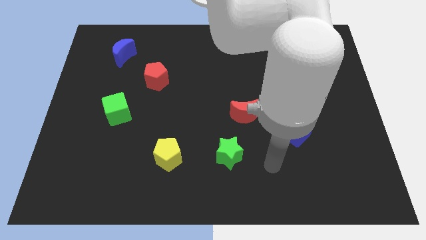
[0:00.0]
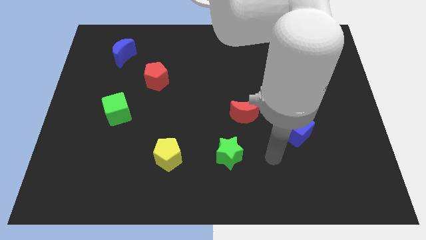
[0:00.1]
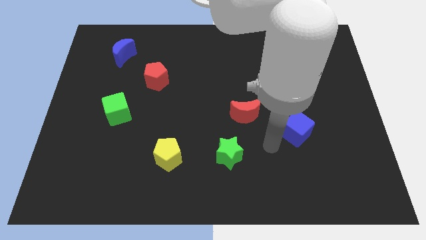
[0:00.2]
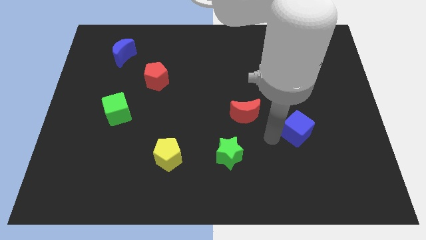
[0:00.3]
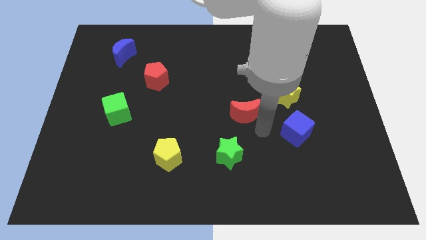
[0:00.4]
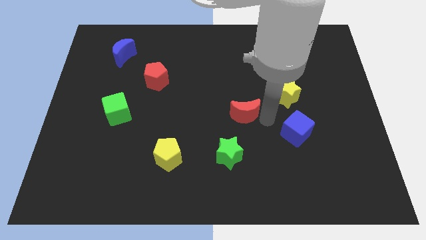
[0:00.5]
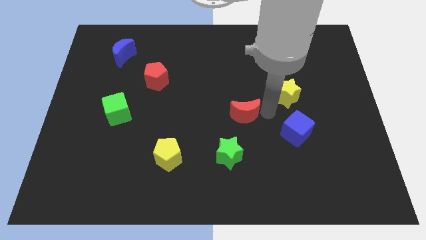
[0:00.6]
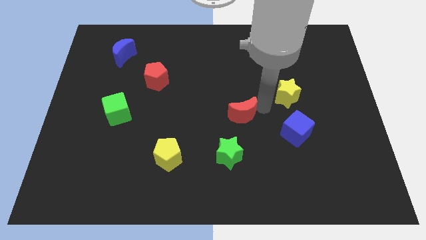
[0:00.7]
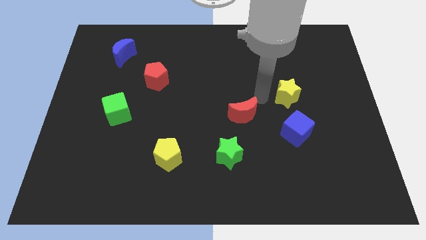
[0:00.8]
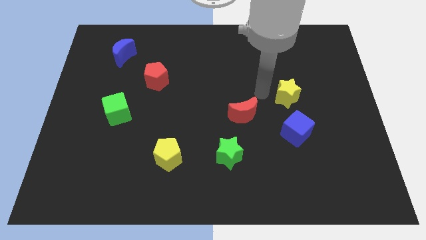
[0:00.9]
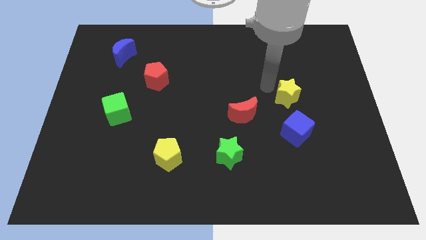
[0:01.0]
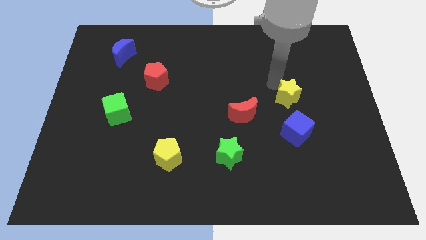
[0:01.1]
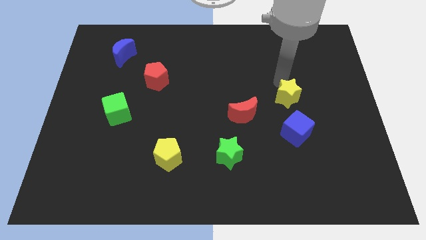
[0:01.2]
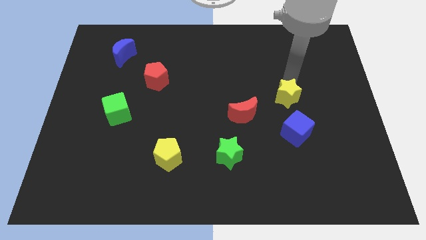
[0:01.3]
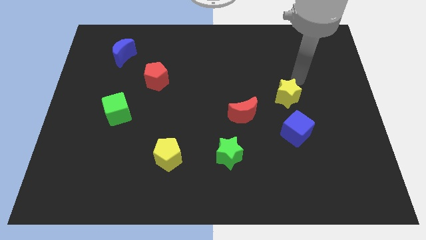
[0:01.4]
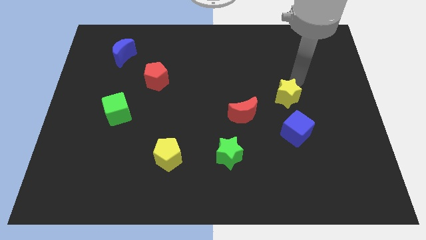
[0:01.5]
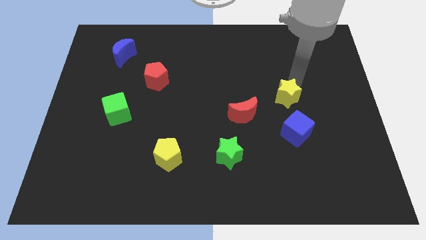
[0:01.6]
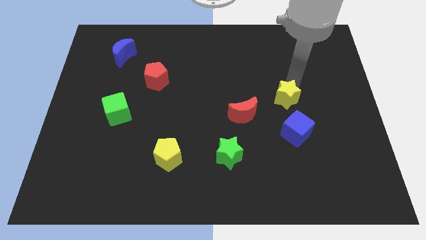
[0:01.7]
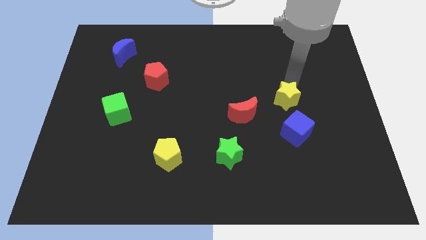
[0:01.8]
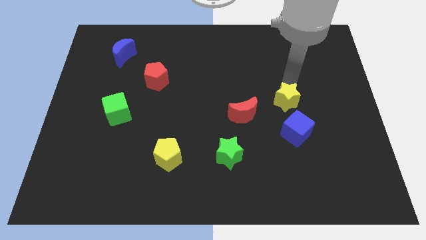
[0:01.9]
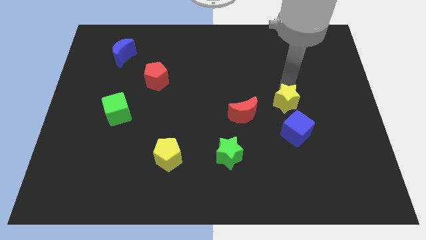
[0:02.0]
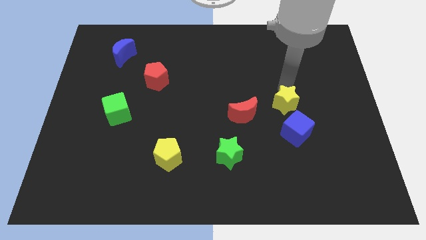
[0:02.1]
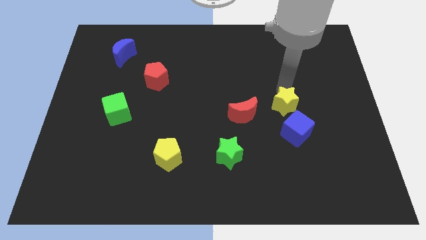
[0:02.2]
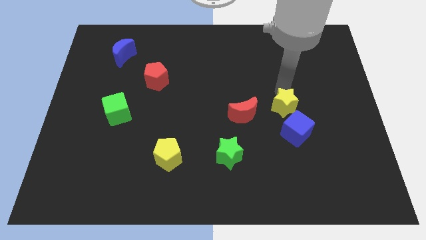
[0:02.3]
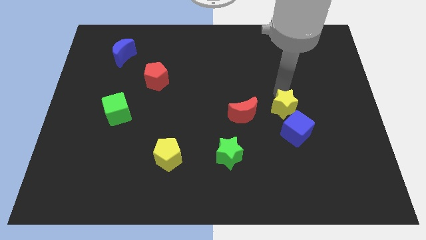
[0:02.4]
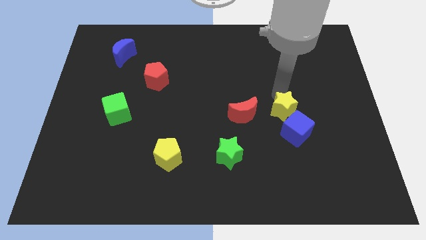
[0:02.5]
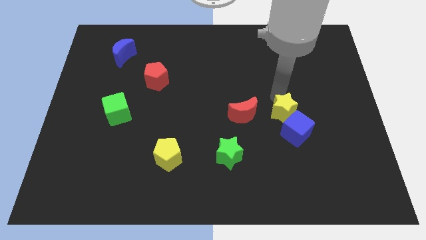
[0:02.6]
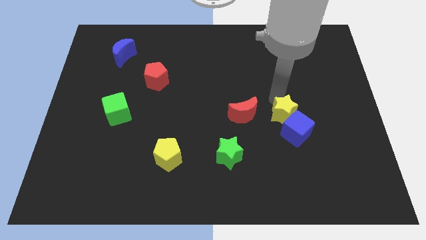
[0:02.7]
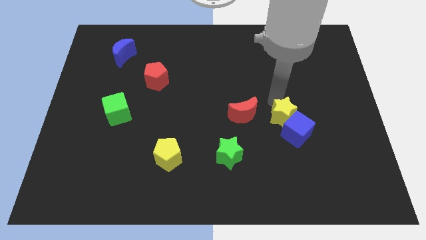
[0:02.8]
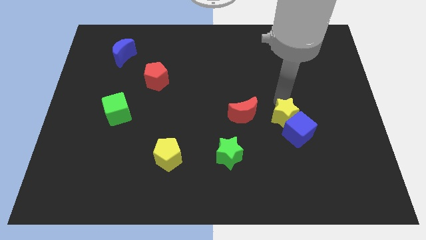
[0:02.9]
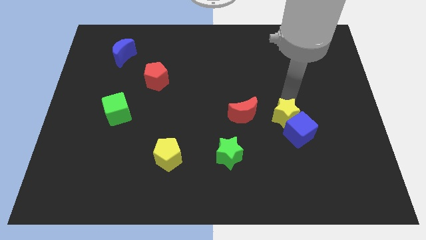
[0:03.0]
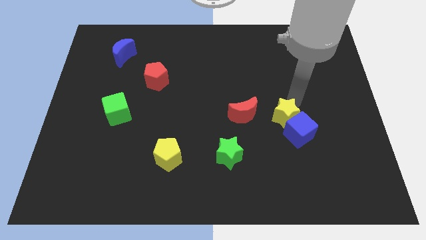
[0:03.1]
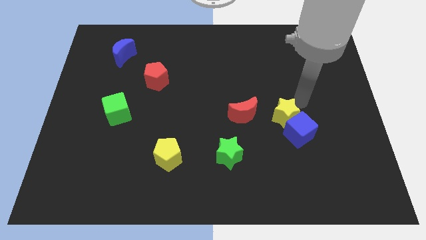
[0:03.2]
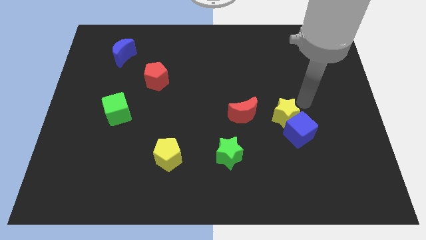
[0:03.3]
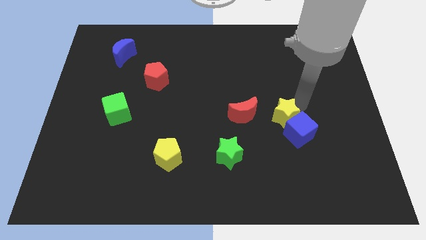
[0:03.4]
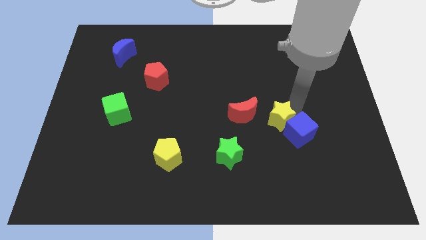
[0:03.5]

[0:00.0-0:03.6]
push the yellow star downwards a bit

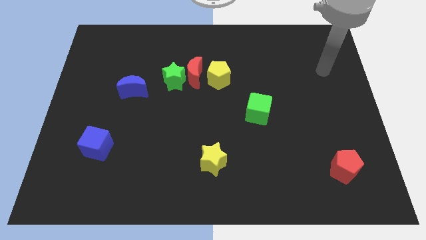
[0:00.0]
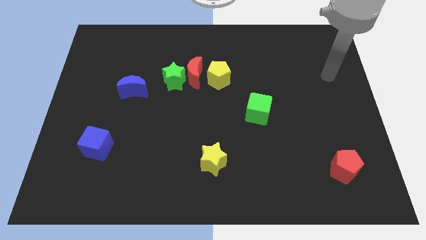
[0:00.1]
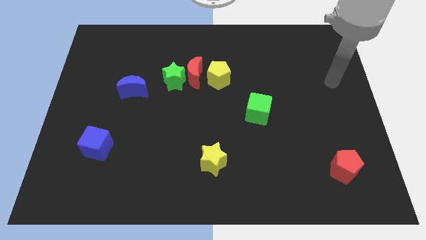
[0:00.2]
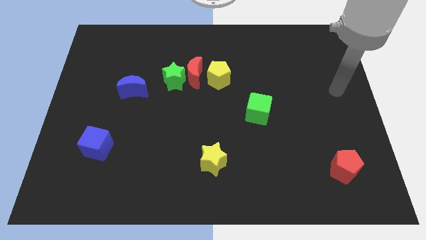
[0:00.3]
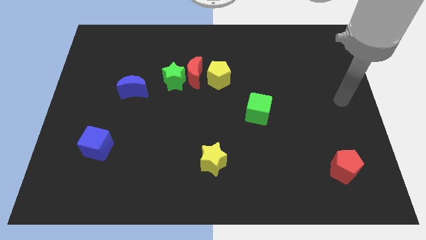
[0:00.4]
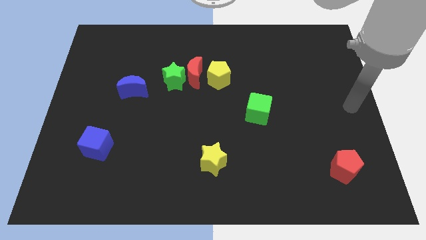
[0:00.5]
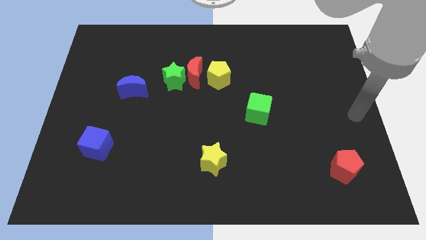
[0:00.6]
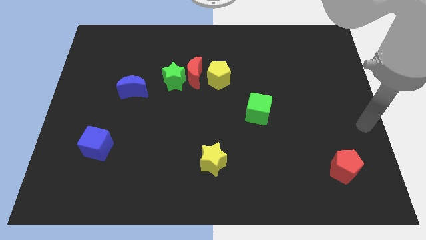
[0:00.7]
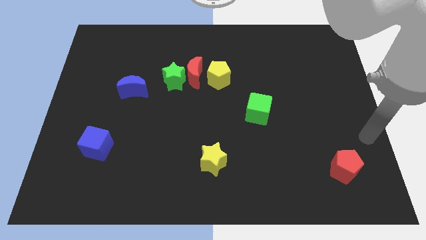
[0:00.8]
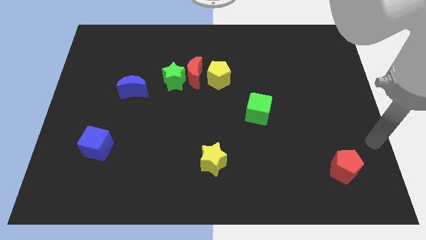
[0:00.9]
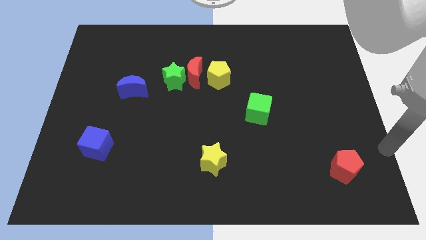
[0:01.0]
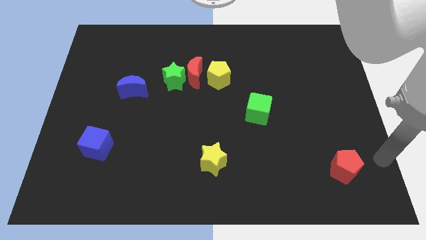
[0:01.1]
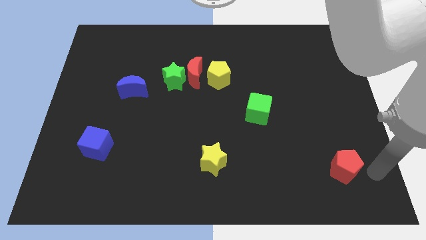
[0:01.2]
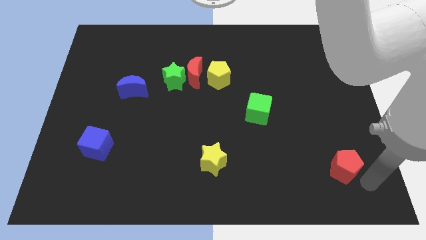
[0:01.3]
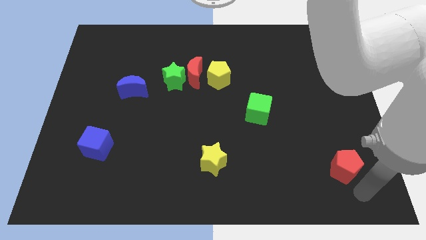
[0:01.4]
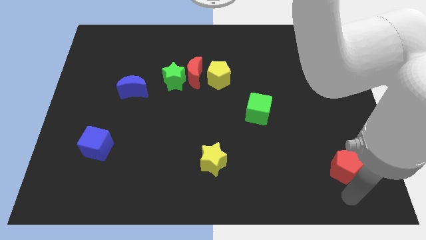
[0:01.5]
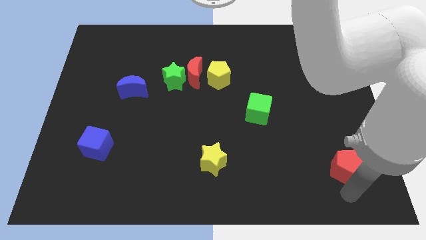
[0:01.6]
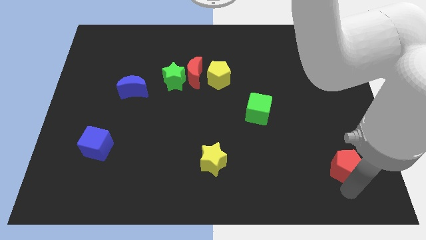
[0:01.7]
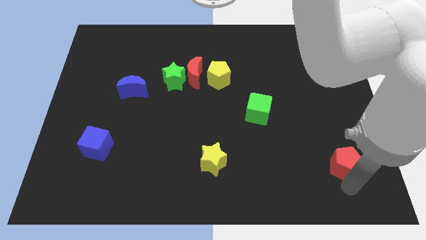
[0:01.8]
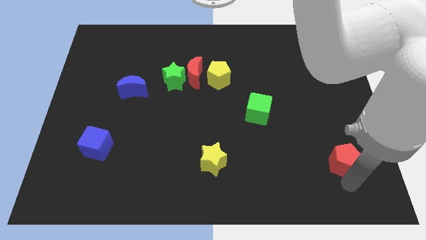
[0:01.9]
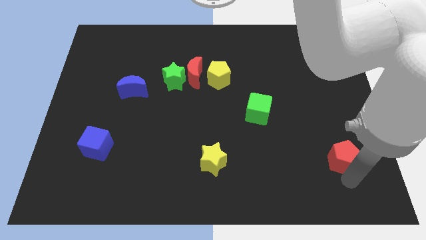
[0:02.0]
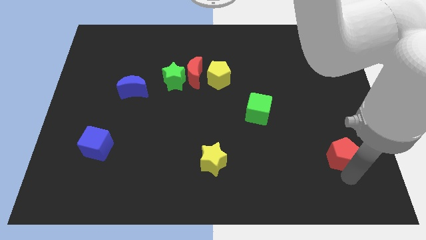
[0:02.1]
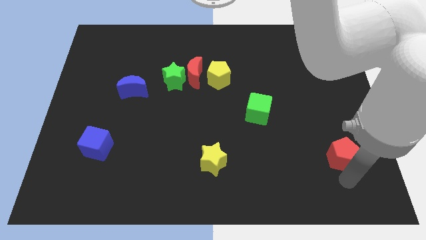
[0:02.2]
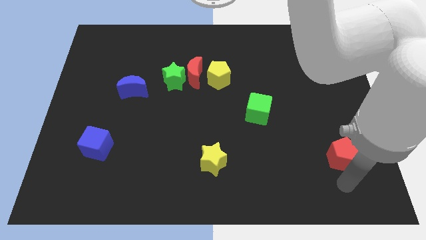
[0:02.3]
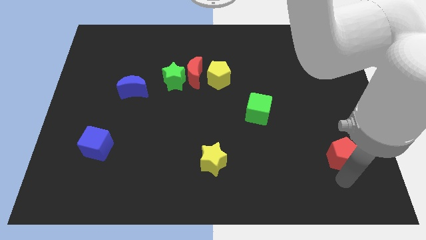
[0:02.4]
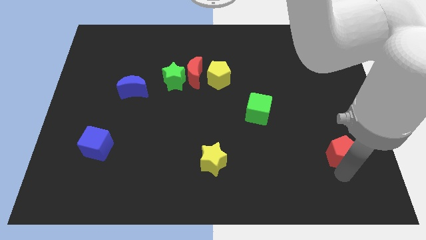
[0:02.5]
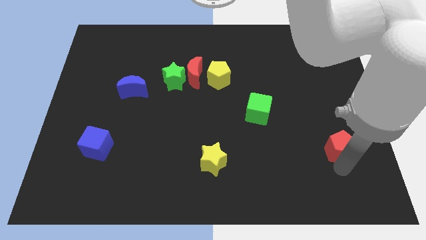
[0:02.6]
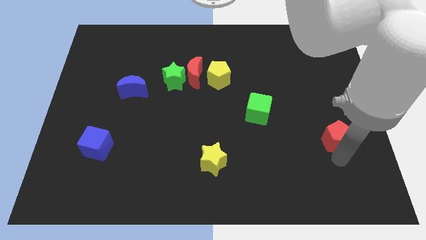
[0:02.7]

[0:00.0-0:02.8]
move the red pentagon a little bit up

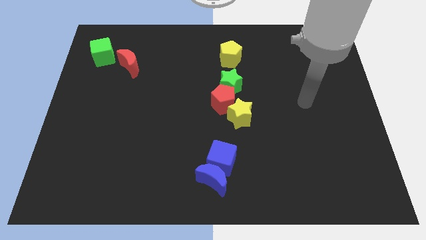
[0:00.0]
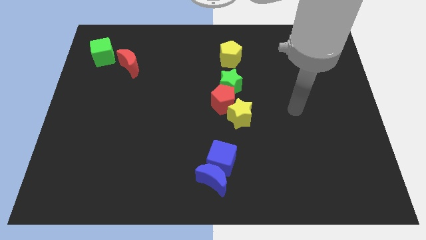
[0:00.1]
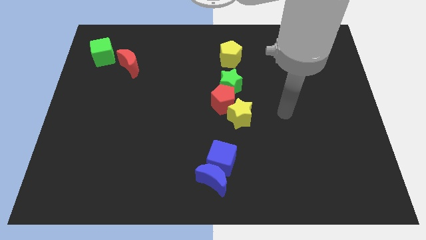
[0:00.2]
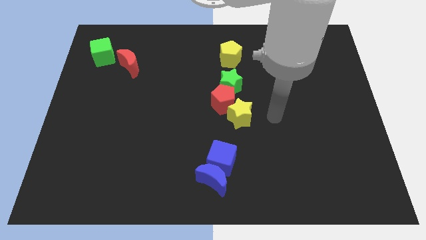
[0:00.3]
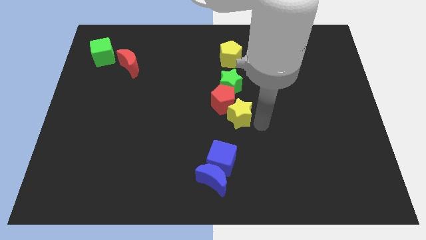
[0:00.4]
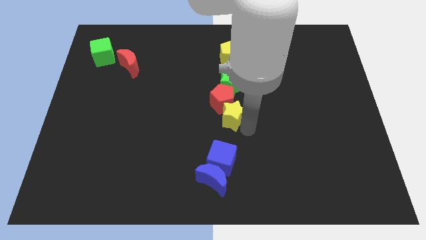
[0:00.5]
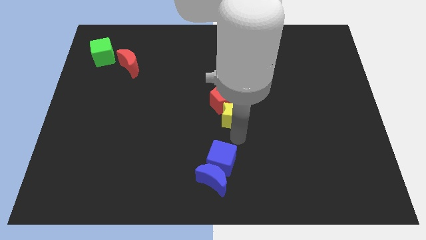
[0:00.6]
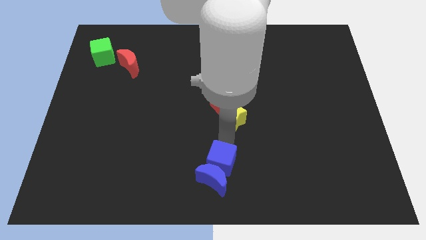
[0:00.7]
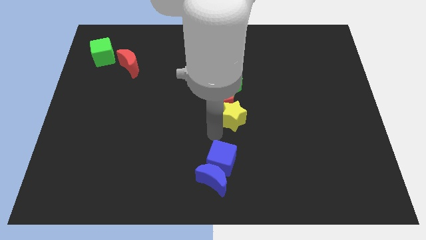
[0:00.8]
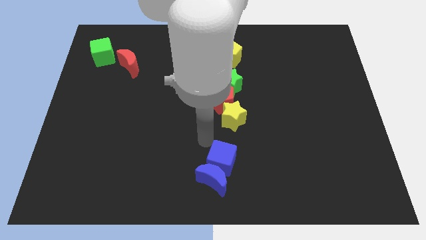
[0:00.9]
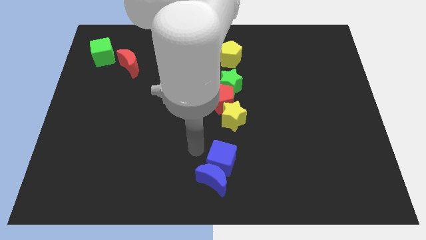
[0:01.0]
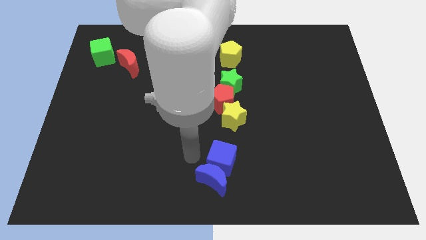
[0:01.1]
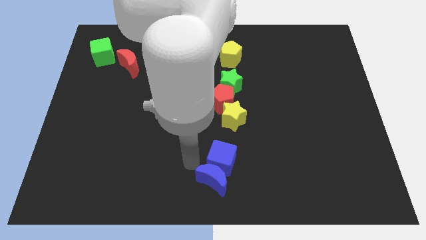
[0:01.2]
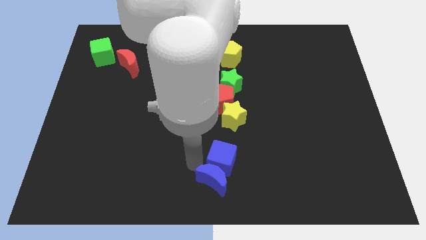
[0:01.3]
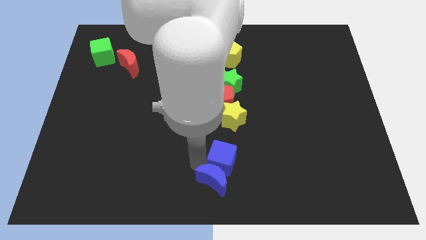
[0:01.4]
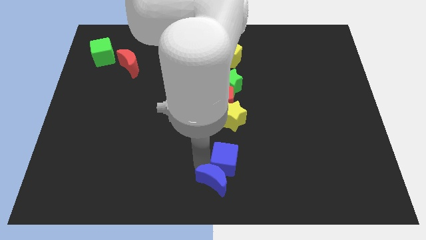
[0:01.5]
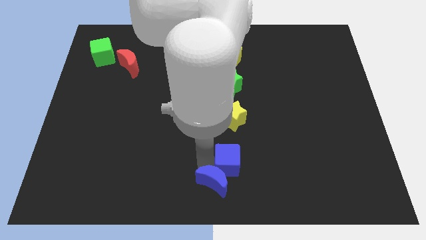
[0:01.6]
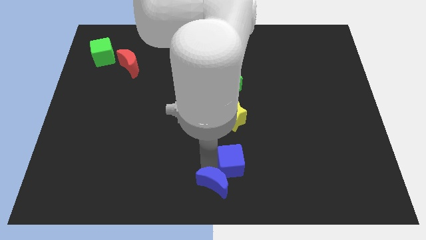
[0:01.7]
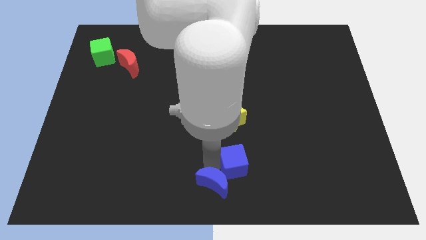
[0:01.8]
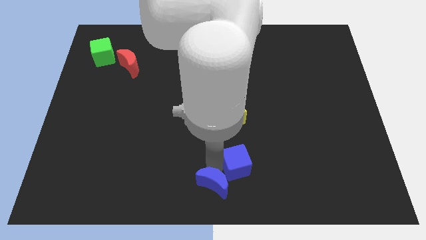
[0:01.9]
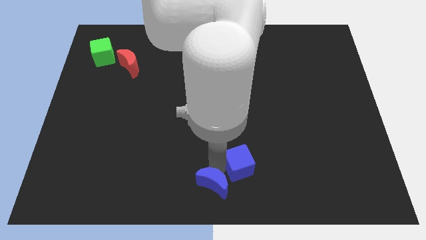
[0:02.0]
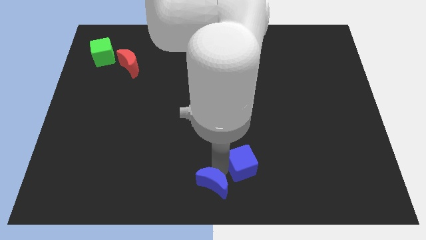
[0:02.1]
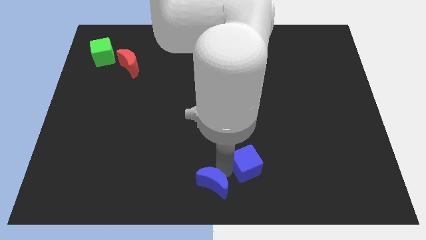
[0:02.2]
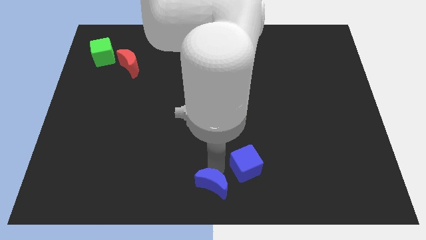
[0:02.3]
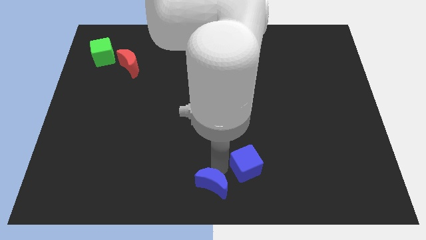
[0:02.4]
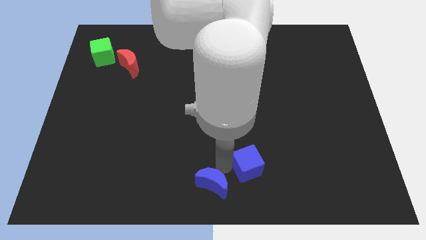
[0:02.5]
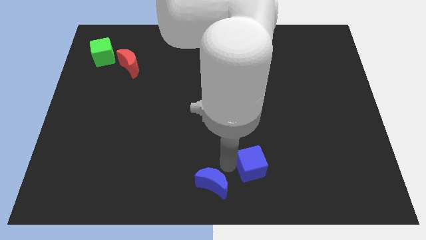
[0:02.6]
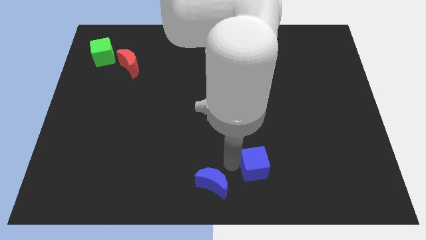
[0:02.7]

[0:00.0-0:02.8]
slightly move the blue cube to the right
